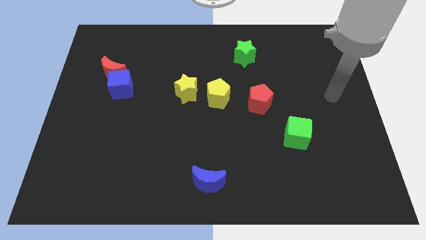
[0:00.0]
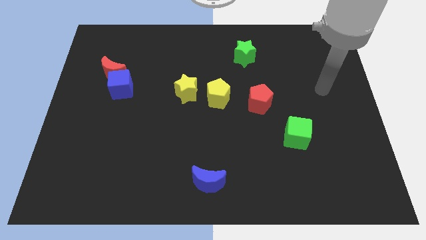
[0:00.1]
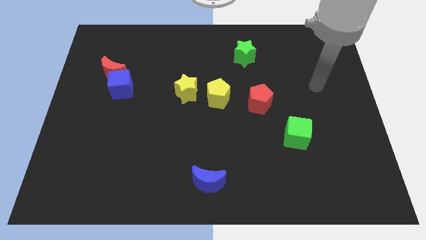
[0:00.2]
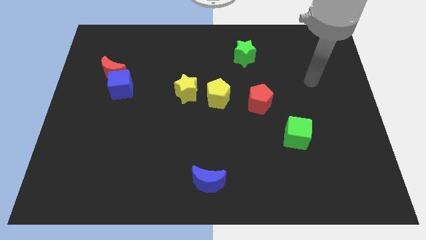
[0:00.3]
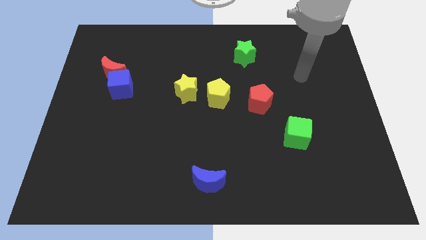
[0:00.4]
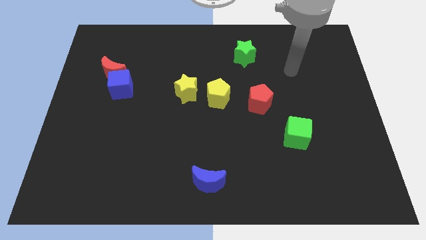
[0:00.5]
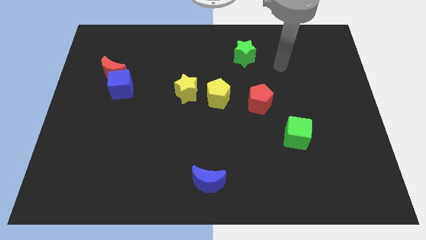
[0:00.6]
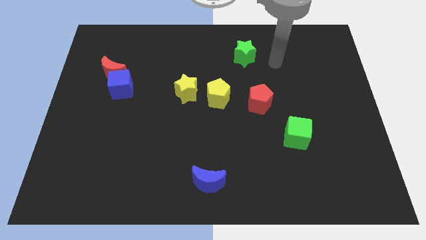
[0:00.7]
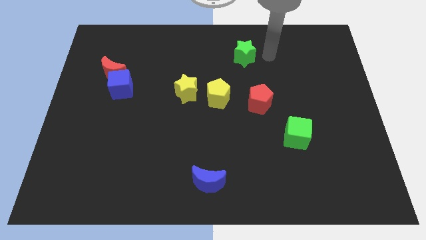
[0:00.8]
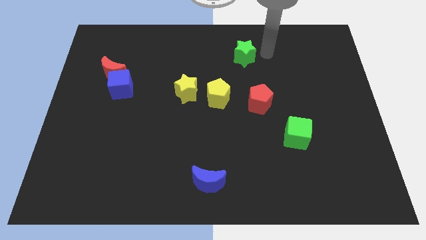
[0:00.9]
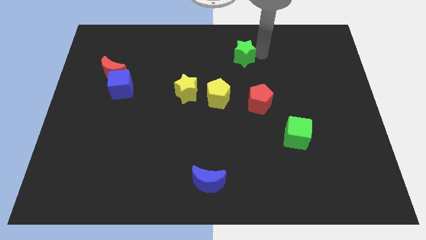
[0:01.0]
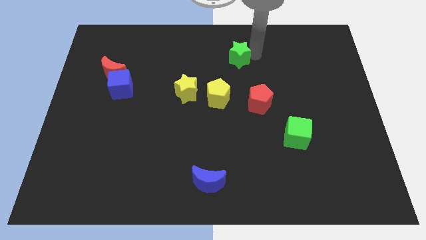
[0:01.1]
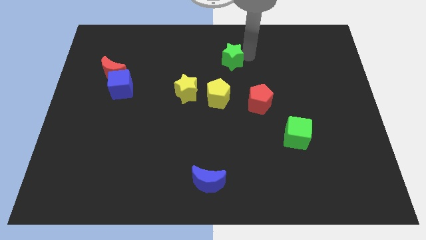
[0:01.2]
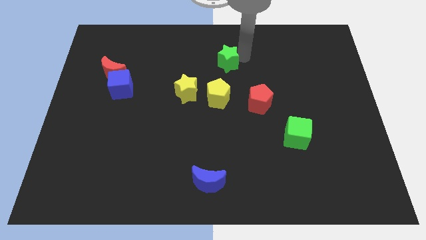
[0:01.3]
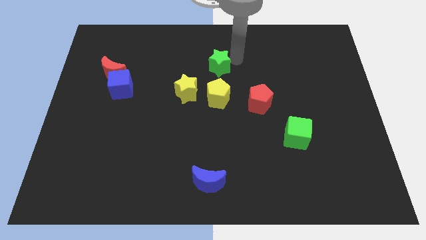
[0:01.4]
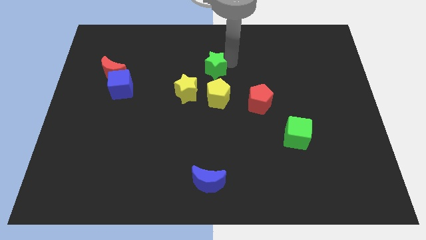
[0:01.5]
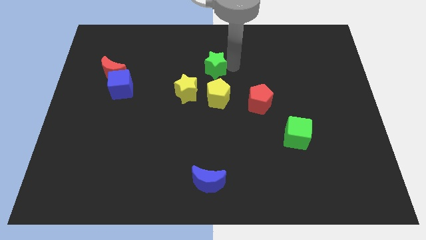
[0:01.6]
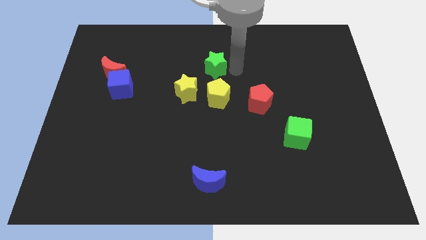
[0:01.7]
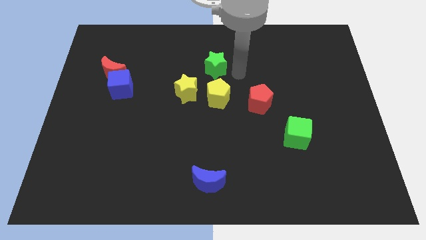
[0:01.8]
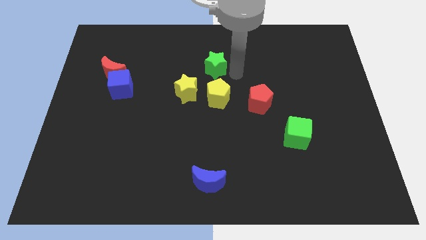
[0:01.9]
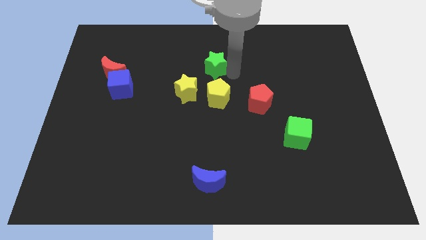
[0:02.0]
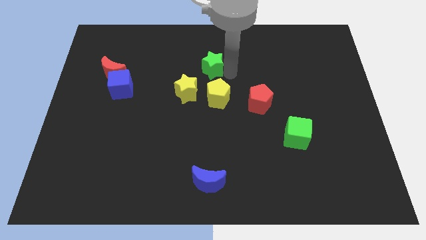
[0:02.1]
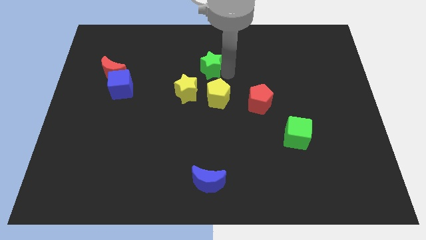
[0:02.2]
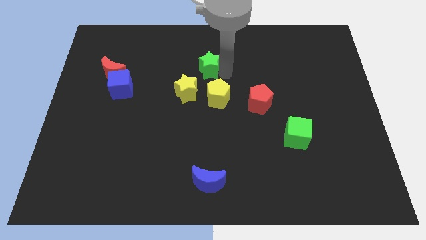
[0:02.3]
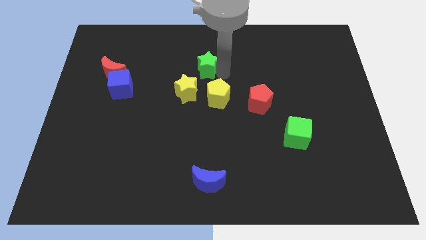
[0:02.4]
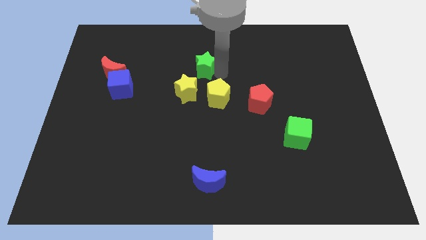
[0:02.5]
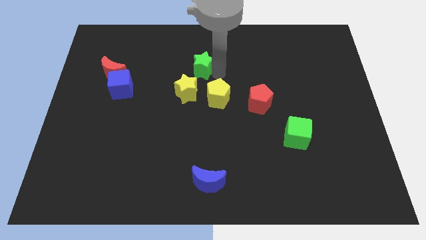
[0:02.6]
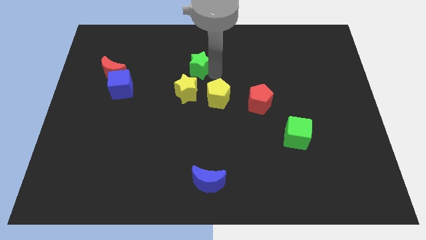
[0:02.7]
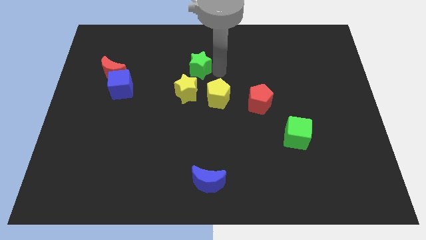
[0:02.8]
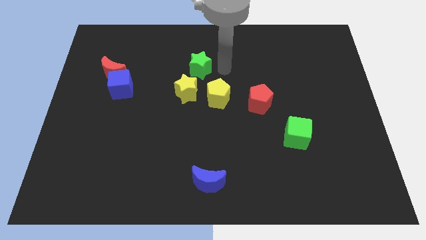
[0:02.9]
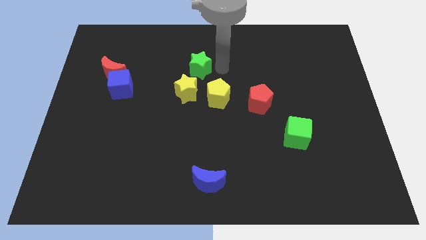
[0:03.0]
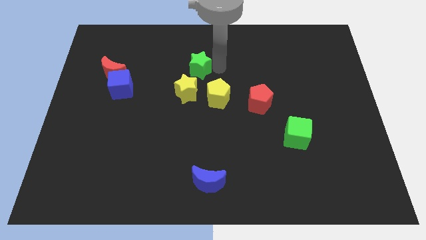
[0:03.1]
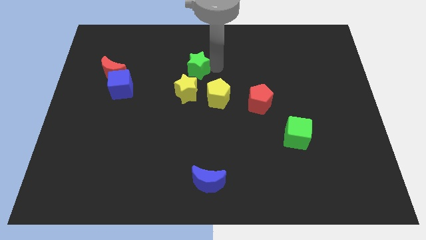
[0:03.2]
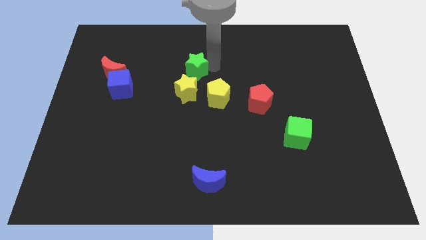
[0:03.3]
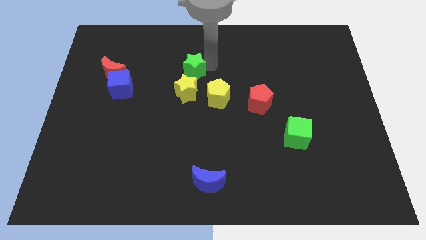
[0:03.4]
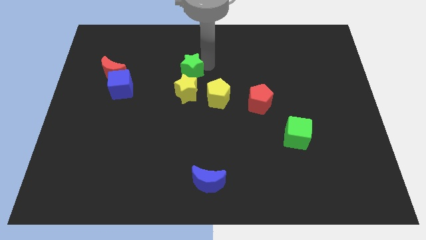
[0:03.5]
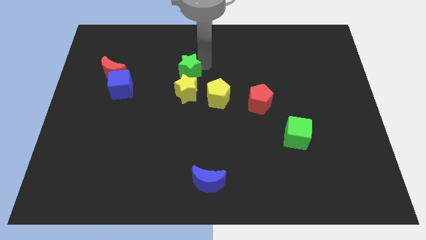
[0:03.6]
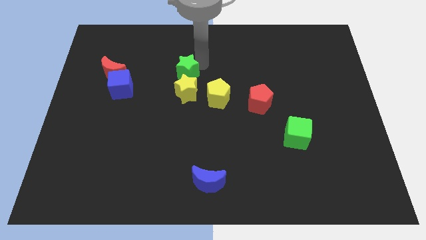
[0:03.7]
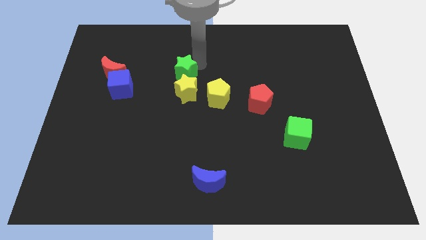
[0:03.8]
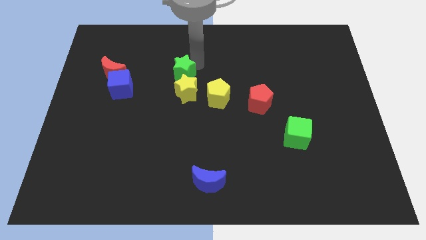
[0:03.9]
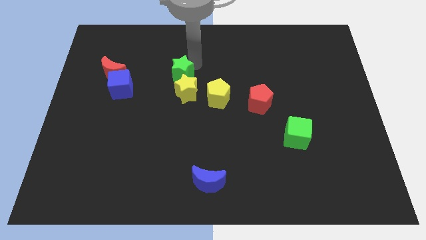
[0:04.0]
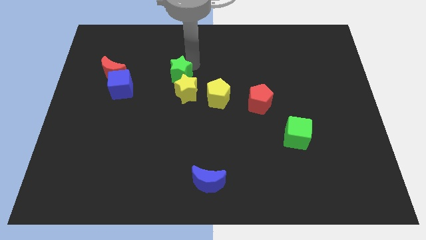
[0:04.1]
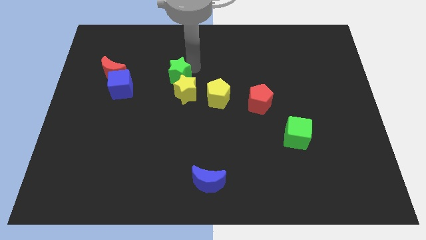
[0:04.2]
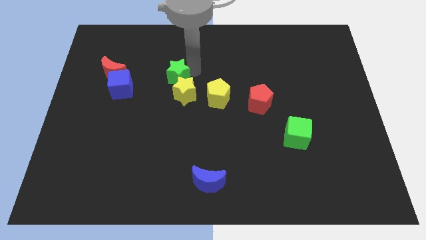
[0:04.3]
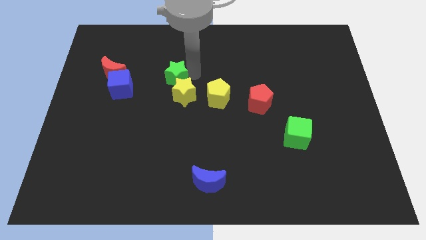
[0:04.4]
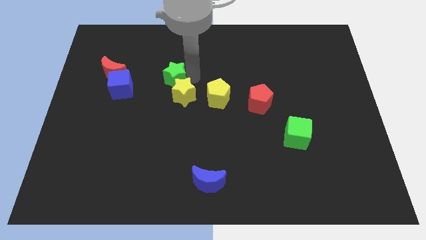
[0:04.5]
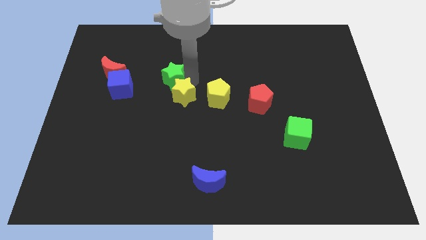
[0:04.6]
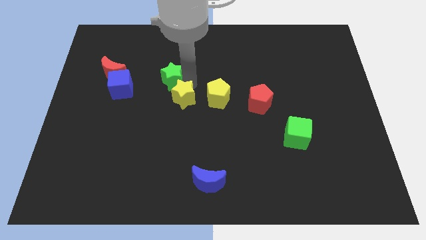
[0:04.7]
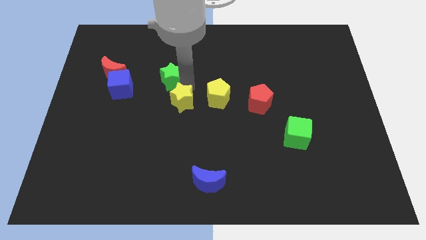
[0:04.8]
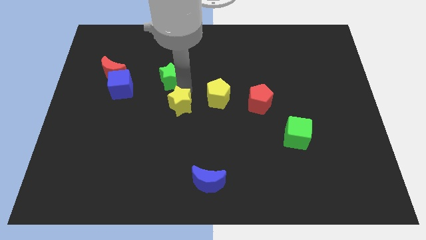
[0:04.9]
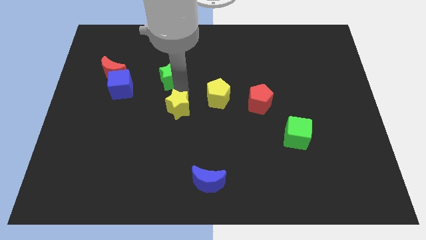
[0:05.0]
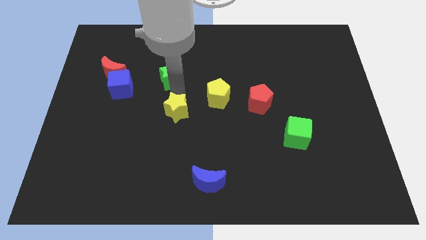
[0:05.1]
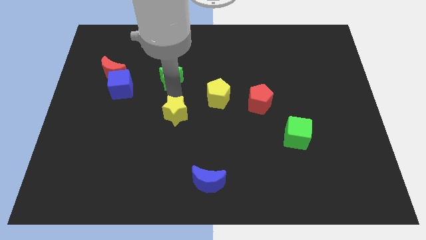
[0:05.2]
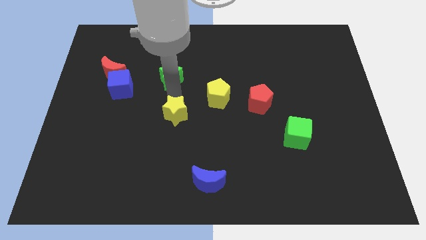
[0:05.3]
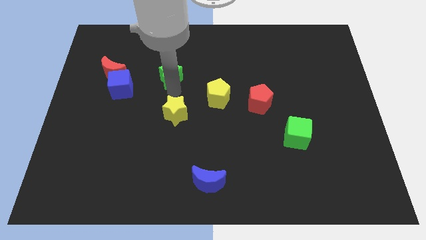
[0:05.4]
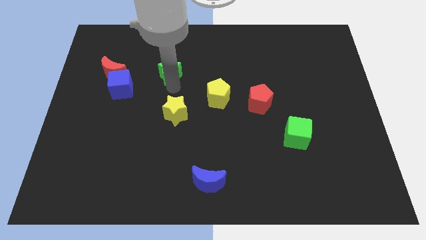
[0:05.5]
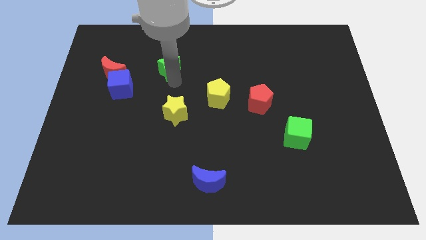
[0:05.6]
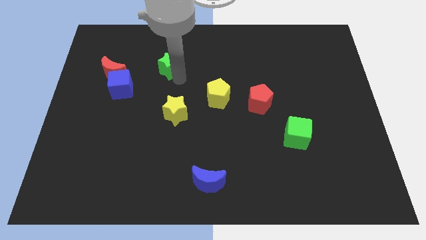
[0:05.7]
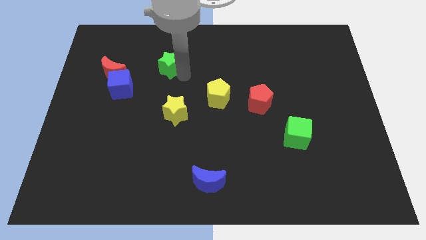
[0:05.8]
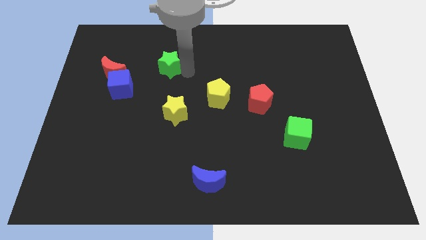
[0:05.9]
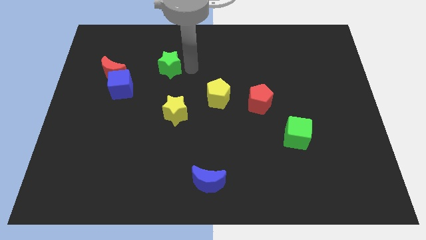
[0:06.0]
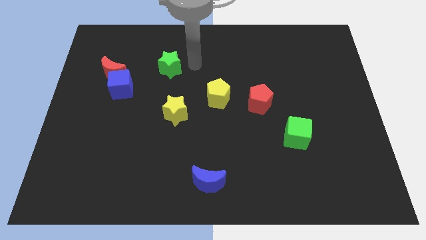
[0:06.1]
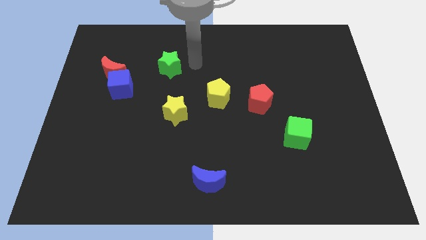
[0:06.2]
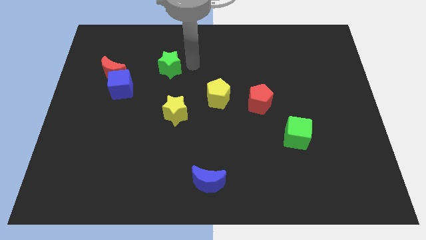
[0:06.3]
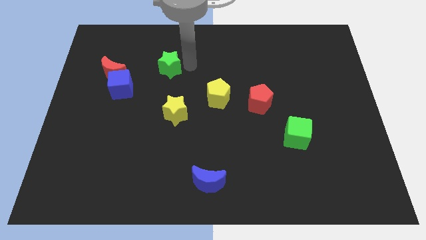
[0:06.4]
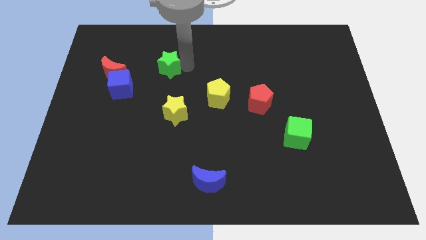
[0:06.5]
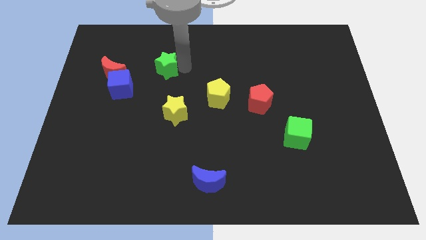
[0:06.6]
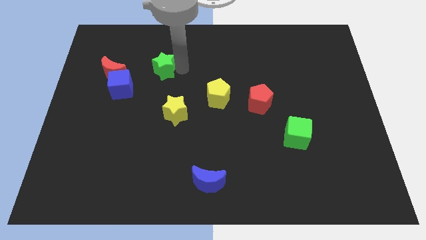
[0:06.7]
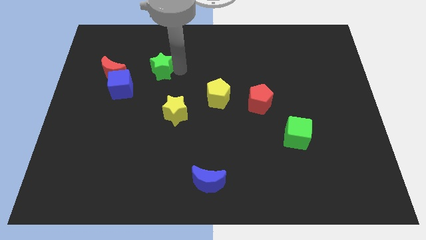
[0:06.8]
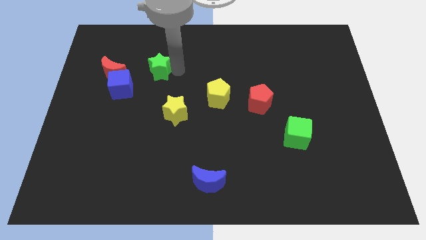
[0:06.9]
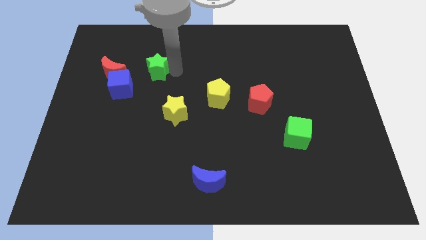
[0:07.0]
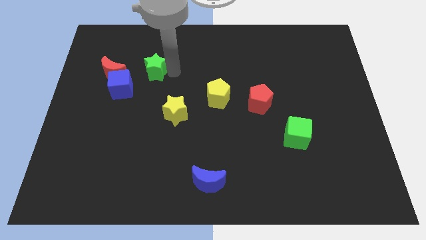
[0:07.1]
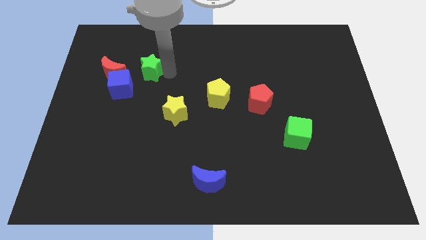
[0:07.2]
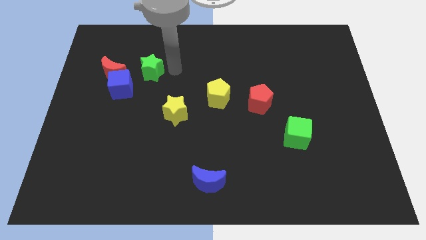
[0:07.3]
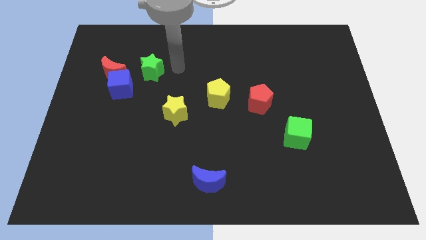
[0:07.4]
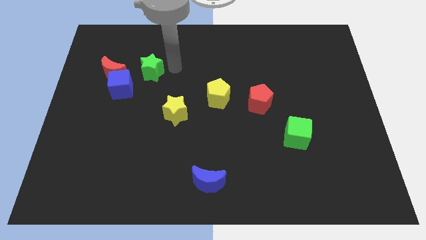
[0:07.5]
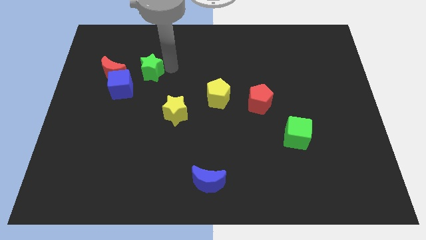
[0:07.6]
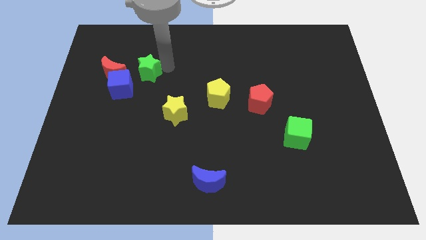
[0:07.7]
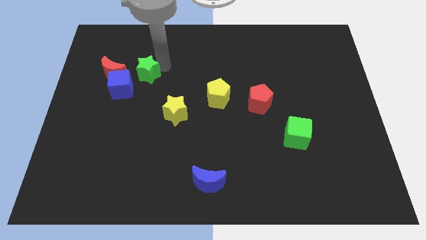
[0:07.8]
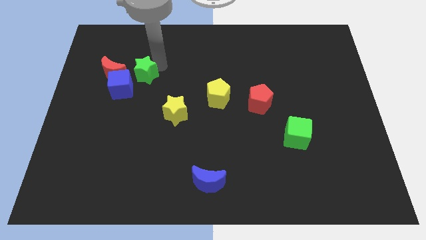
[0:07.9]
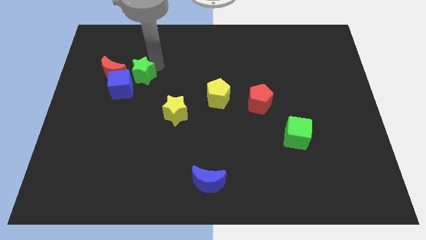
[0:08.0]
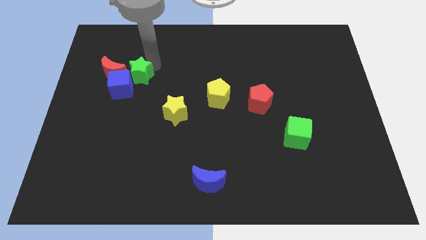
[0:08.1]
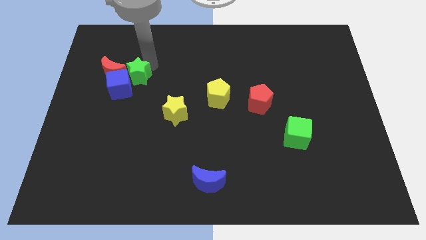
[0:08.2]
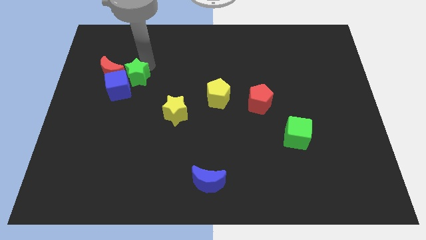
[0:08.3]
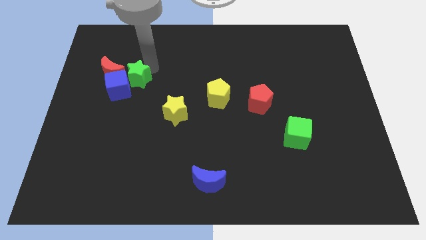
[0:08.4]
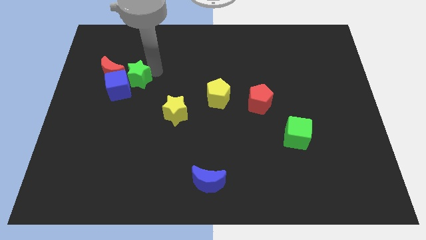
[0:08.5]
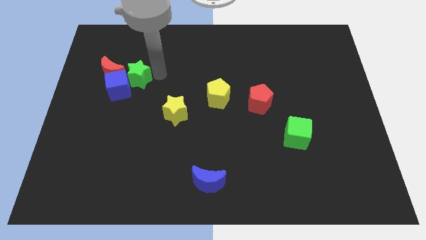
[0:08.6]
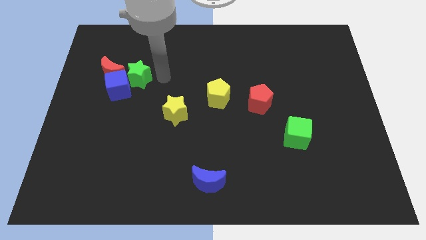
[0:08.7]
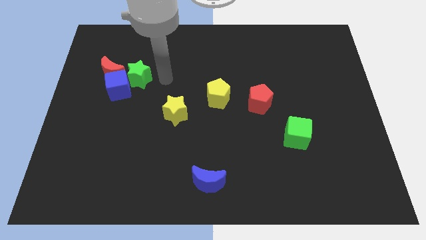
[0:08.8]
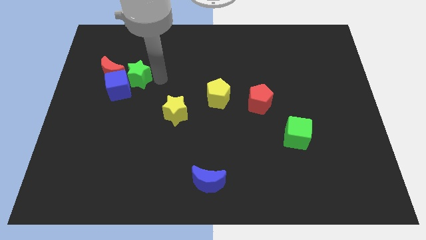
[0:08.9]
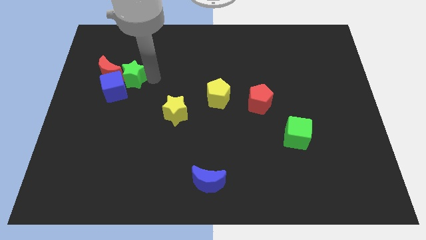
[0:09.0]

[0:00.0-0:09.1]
move the green star towards the red moon
